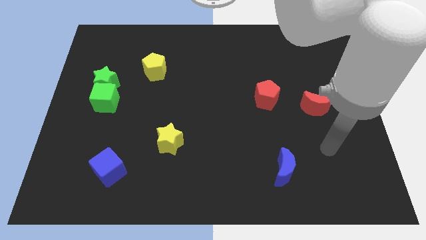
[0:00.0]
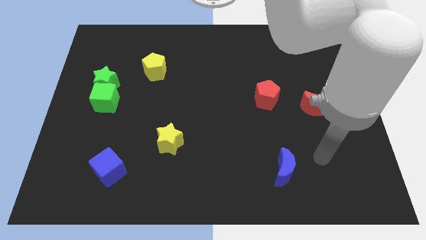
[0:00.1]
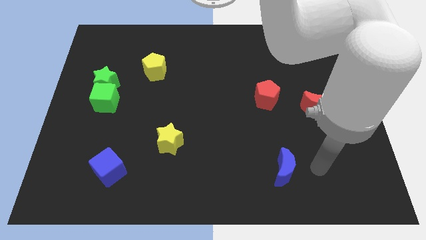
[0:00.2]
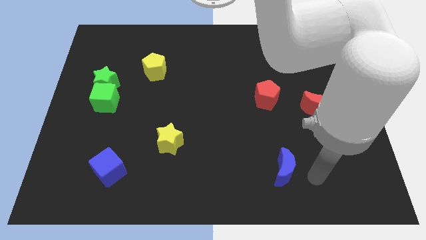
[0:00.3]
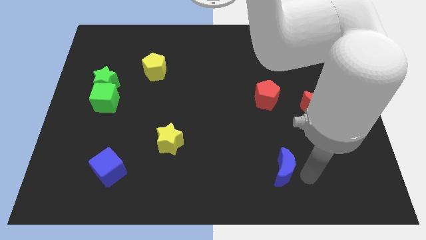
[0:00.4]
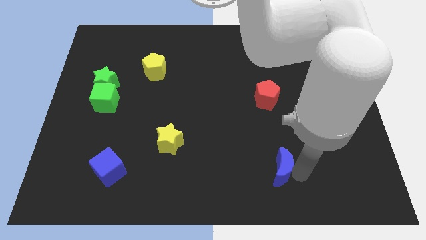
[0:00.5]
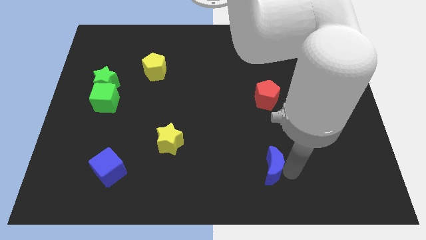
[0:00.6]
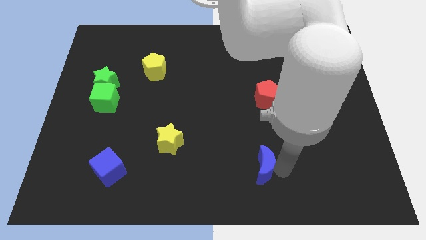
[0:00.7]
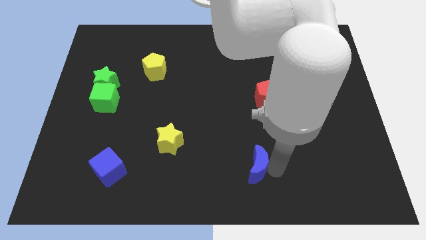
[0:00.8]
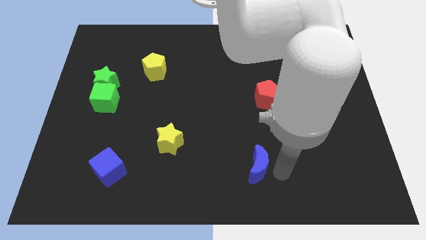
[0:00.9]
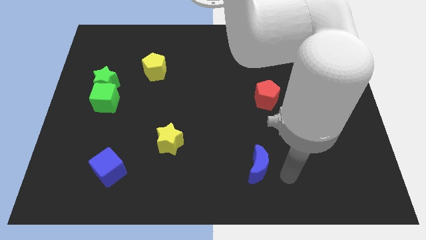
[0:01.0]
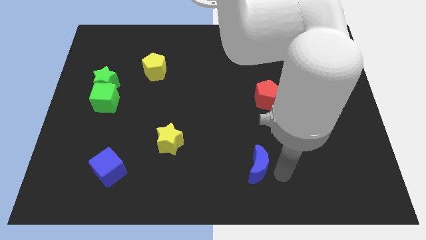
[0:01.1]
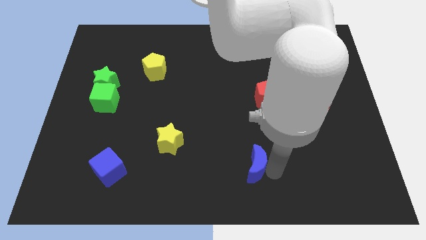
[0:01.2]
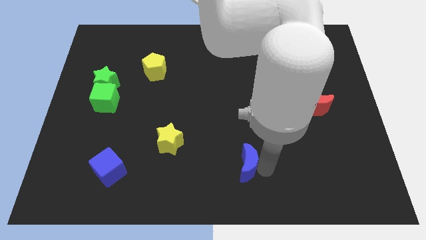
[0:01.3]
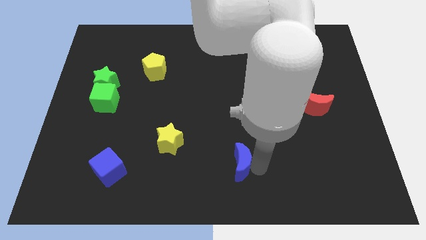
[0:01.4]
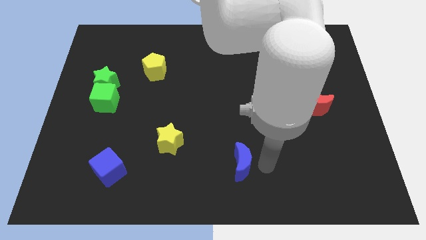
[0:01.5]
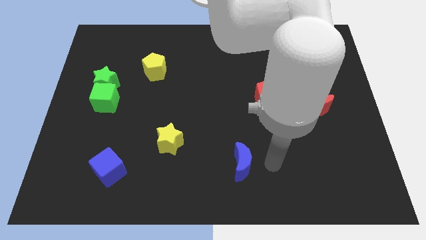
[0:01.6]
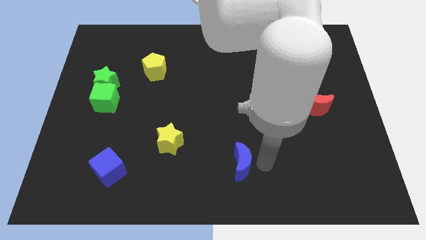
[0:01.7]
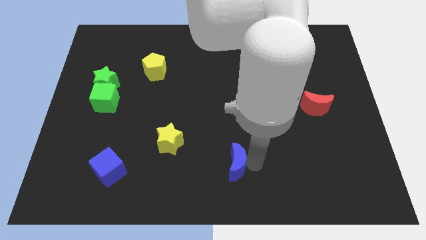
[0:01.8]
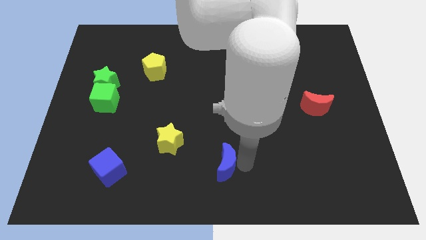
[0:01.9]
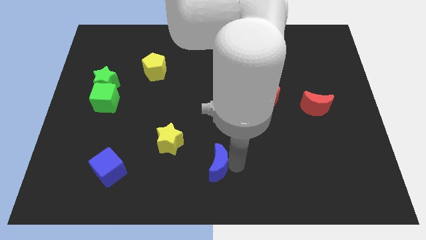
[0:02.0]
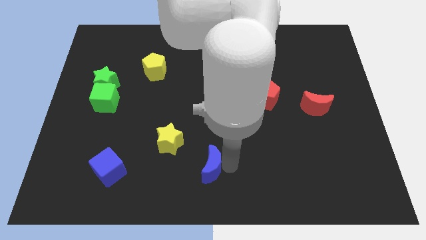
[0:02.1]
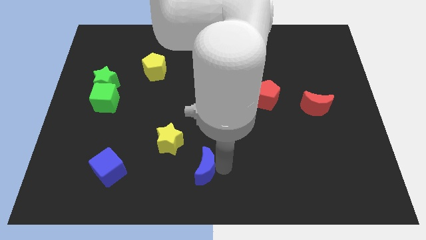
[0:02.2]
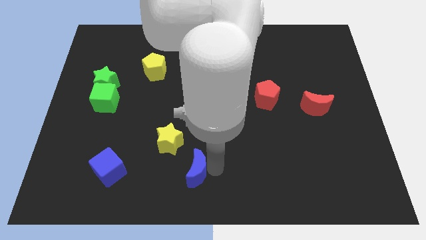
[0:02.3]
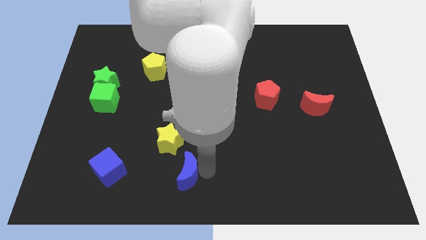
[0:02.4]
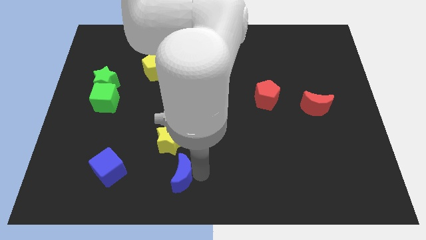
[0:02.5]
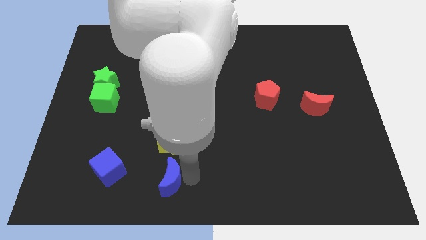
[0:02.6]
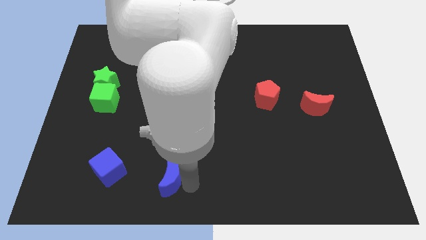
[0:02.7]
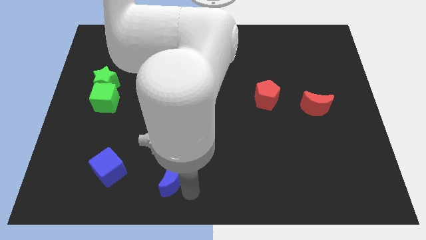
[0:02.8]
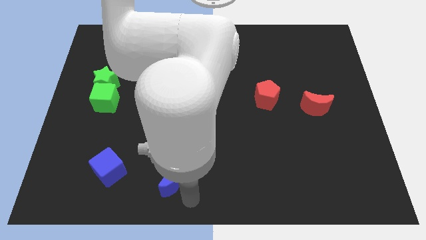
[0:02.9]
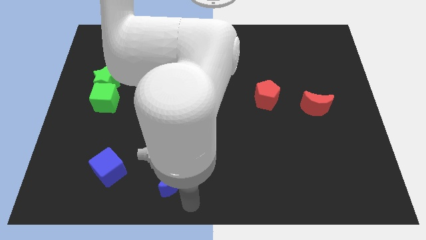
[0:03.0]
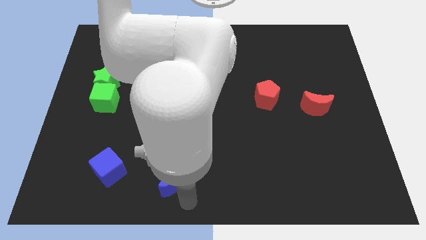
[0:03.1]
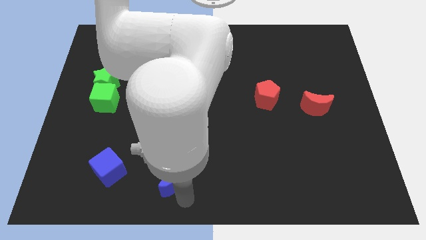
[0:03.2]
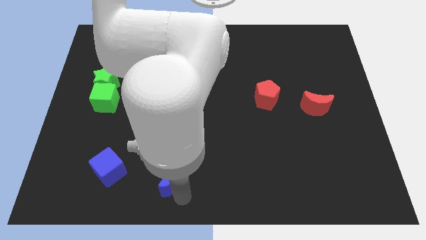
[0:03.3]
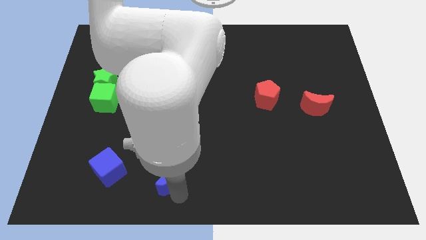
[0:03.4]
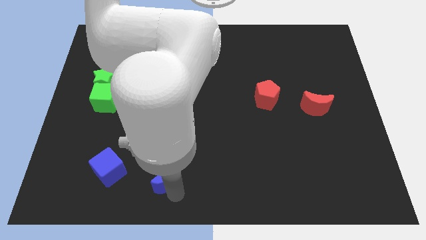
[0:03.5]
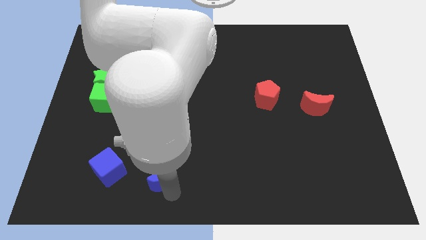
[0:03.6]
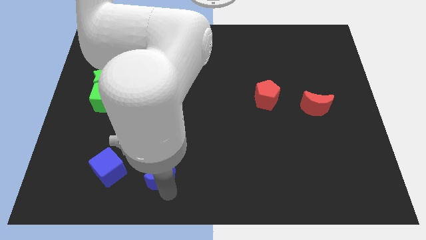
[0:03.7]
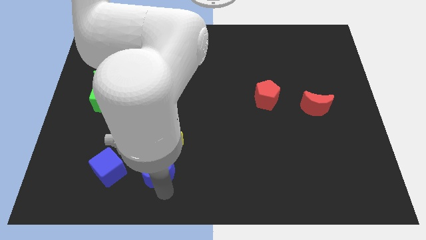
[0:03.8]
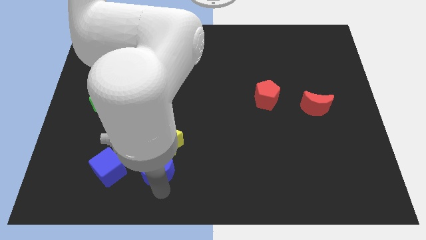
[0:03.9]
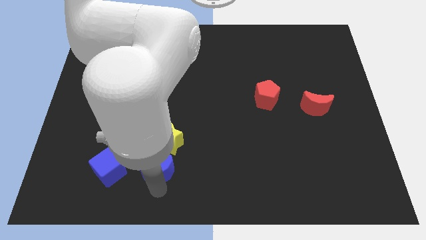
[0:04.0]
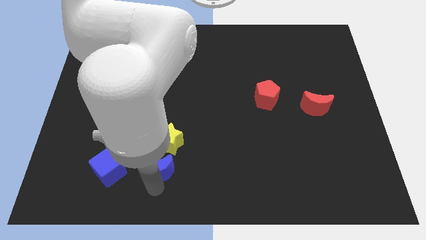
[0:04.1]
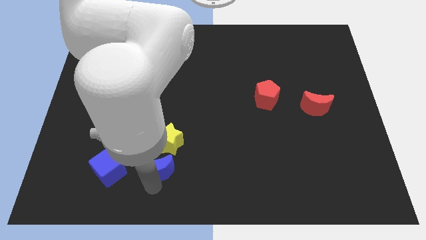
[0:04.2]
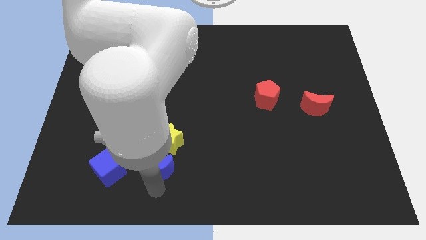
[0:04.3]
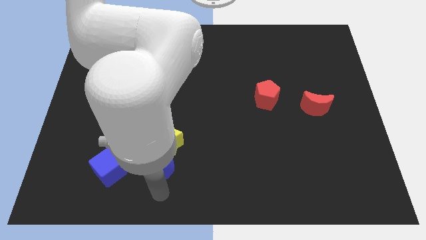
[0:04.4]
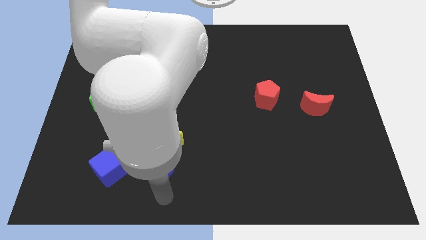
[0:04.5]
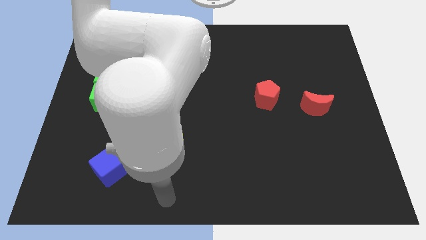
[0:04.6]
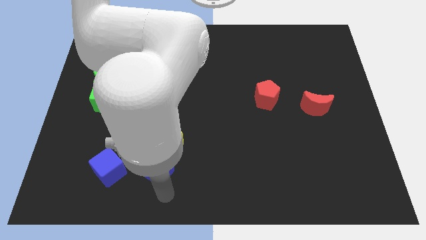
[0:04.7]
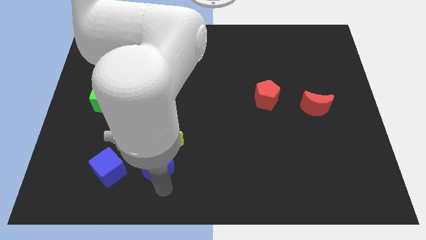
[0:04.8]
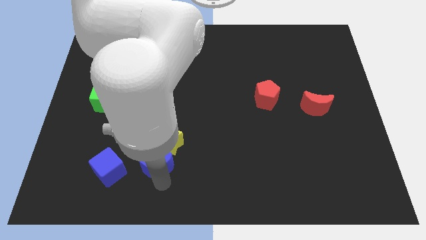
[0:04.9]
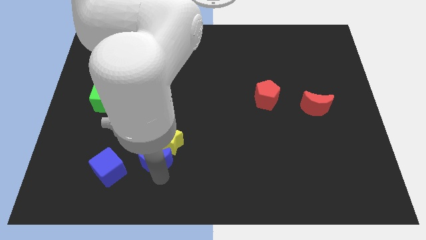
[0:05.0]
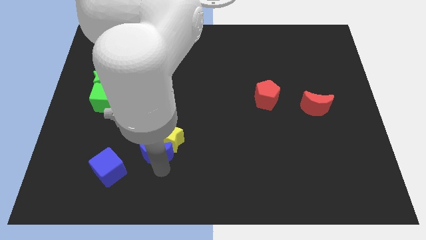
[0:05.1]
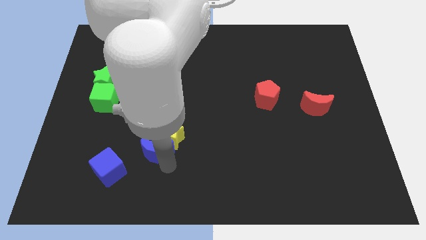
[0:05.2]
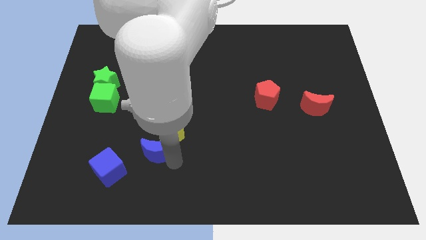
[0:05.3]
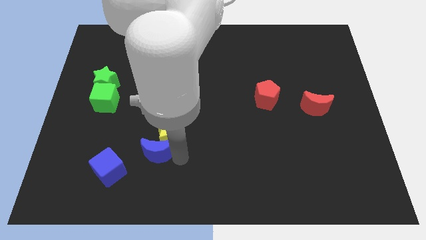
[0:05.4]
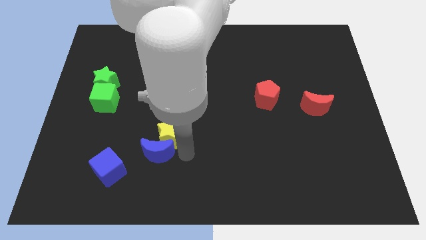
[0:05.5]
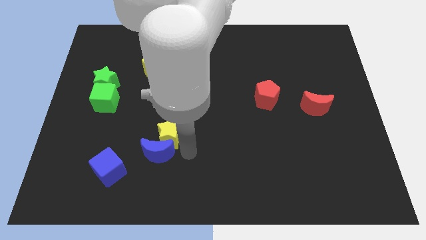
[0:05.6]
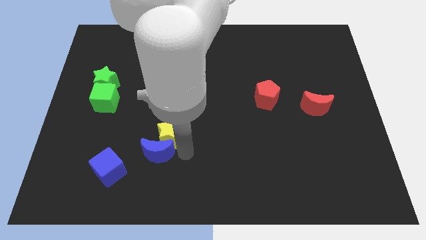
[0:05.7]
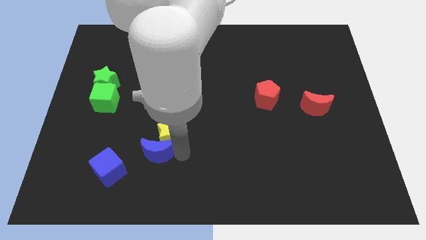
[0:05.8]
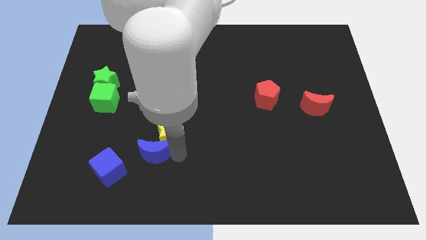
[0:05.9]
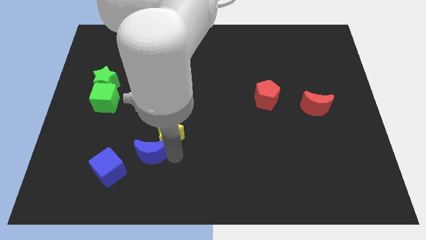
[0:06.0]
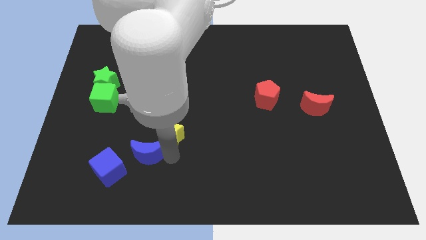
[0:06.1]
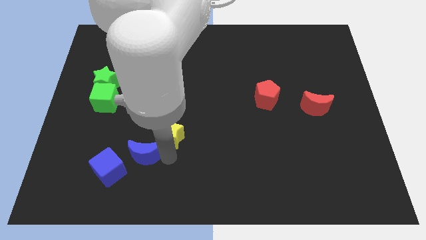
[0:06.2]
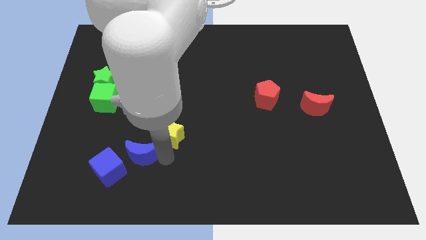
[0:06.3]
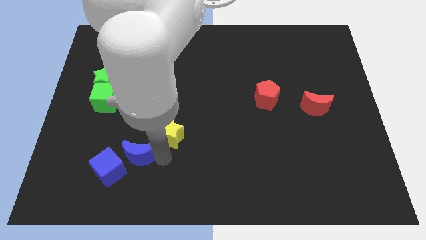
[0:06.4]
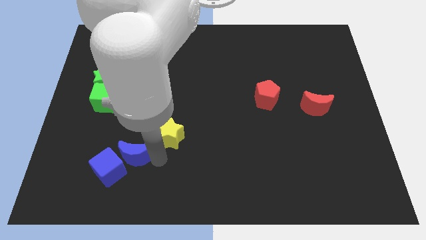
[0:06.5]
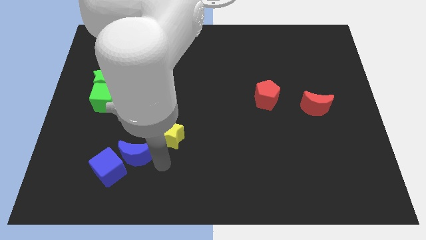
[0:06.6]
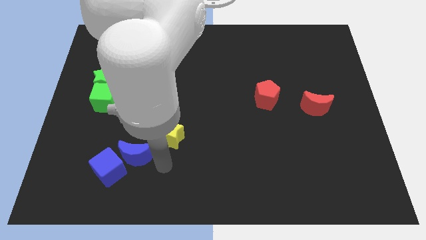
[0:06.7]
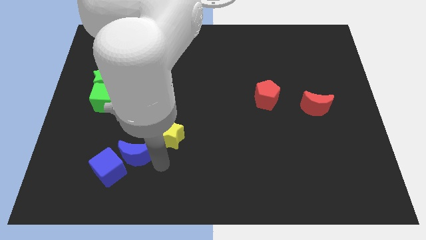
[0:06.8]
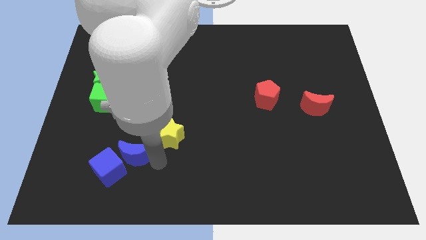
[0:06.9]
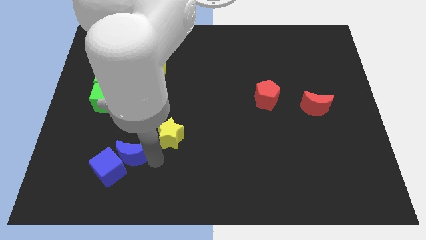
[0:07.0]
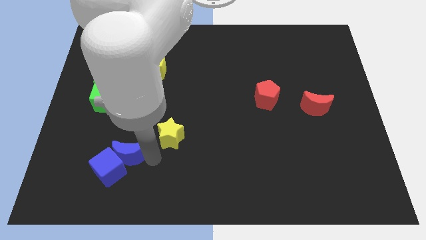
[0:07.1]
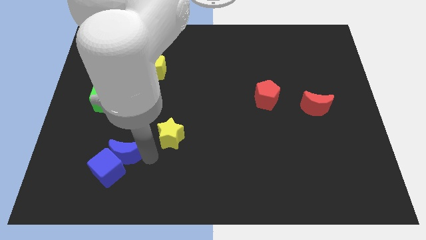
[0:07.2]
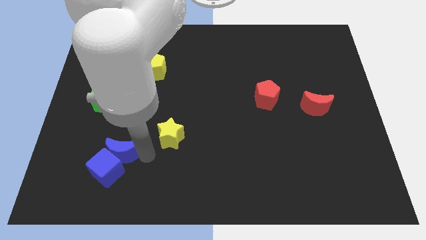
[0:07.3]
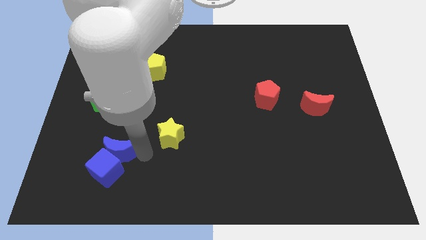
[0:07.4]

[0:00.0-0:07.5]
move the blue moon to the top left side of the blue cube
